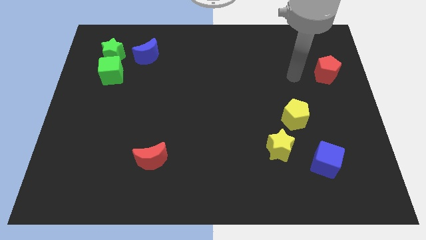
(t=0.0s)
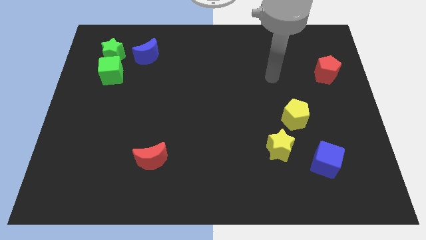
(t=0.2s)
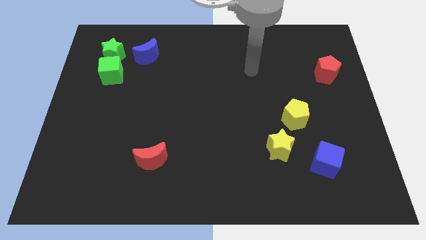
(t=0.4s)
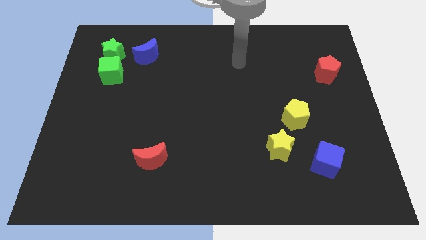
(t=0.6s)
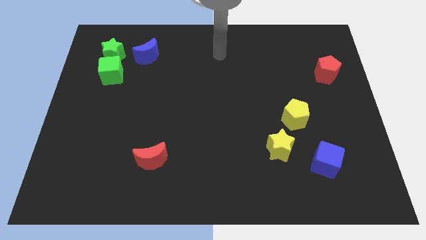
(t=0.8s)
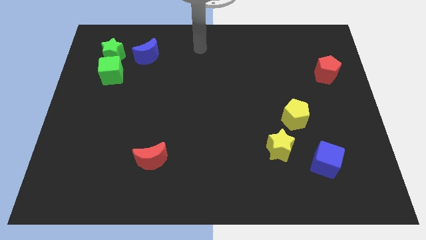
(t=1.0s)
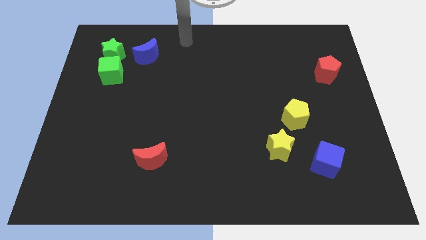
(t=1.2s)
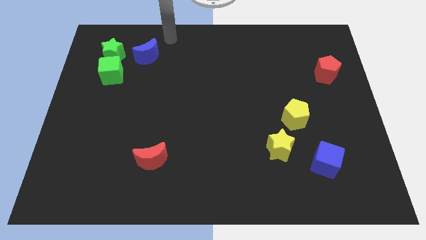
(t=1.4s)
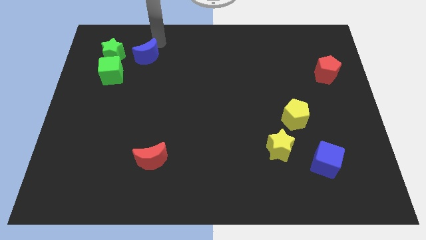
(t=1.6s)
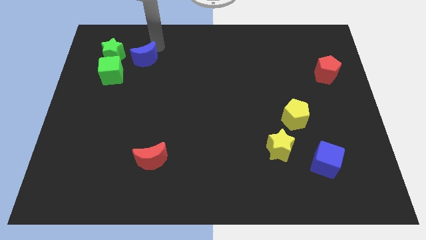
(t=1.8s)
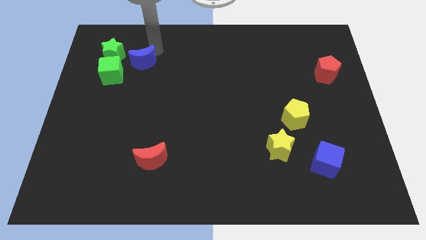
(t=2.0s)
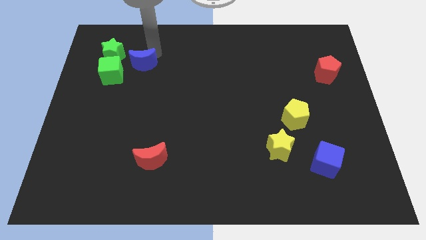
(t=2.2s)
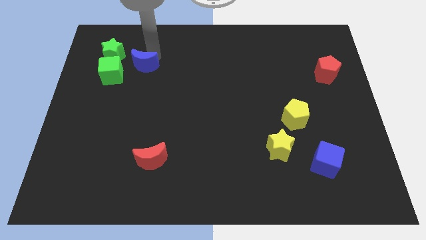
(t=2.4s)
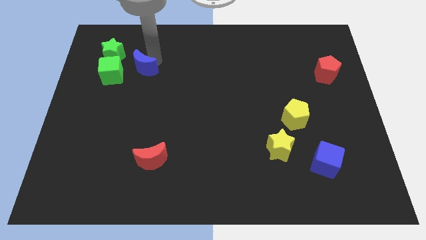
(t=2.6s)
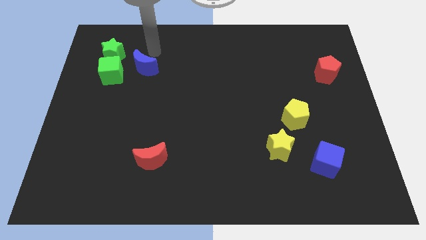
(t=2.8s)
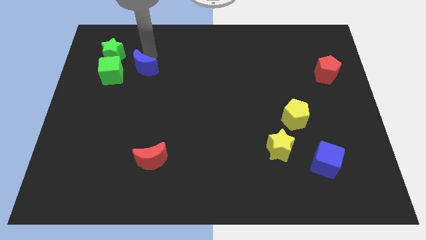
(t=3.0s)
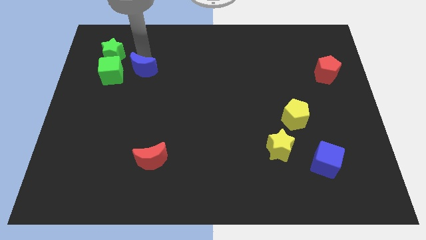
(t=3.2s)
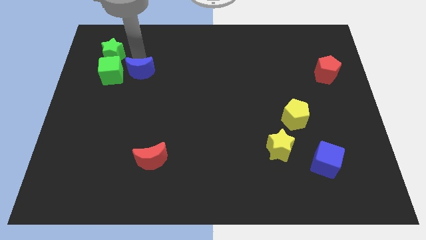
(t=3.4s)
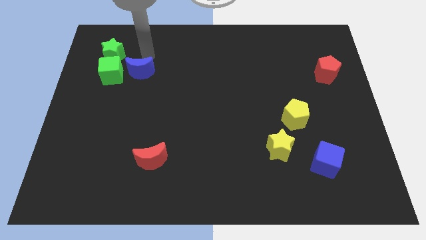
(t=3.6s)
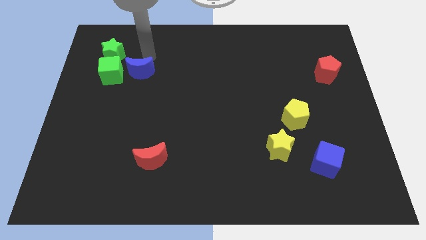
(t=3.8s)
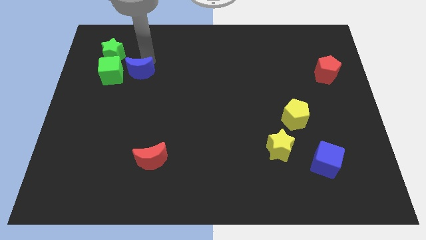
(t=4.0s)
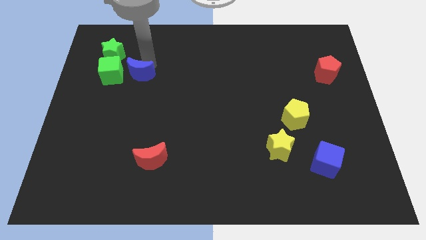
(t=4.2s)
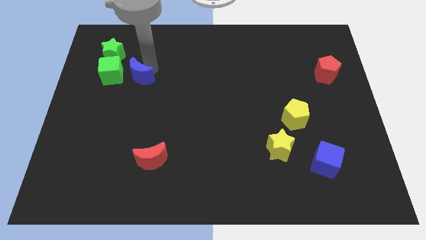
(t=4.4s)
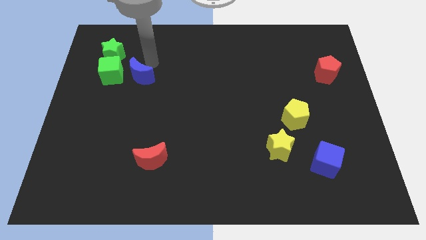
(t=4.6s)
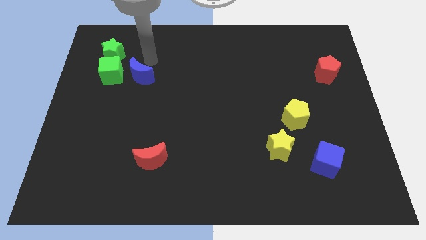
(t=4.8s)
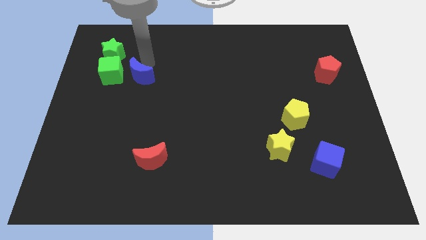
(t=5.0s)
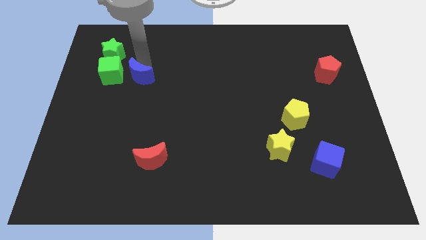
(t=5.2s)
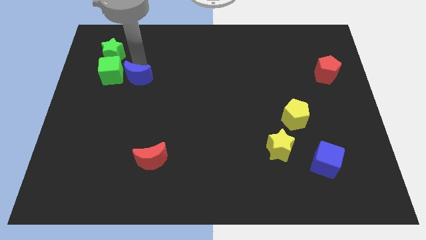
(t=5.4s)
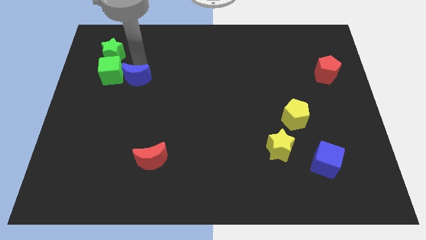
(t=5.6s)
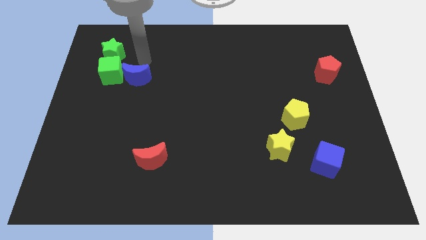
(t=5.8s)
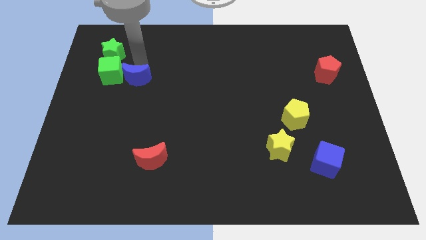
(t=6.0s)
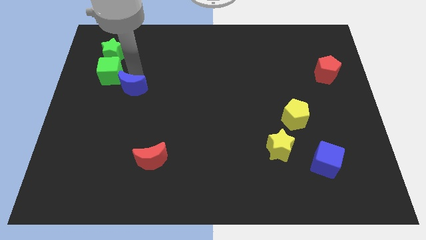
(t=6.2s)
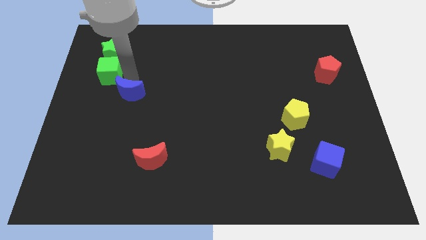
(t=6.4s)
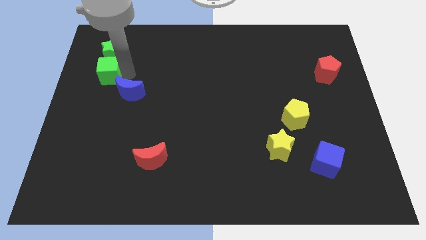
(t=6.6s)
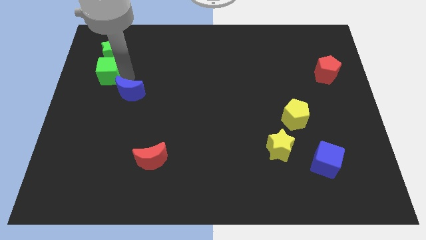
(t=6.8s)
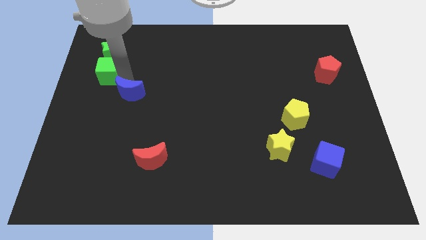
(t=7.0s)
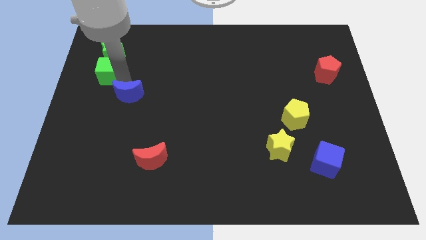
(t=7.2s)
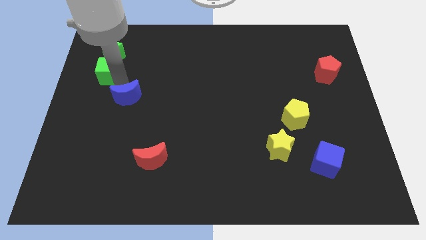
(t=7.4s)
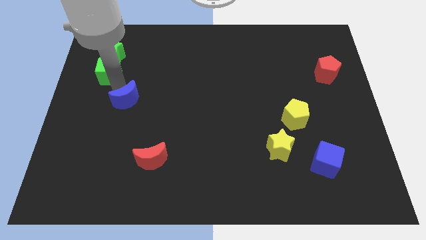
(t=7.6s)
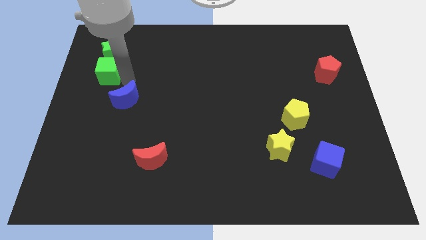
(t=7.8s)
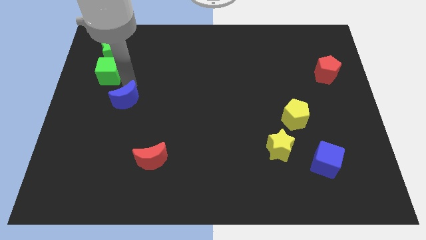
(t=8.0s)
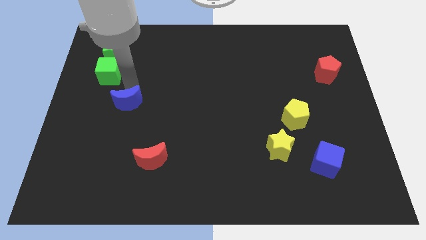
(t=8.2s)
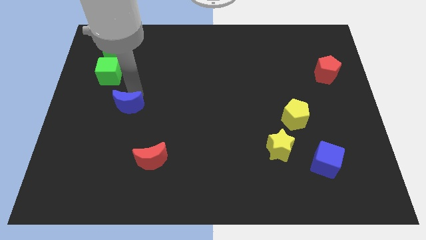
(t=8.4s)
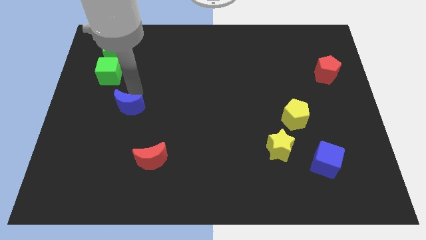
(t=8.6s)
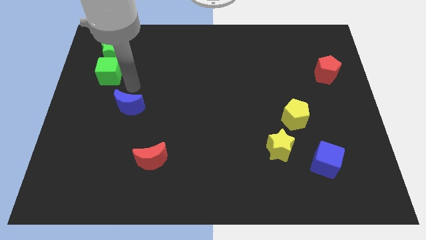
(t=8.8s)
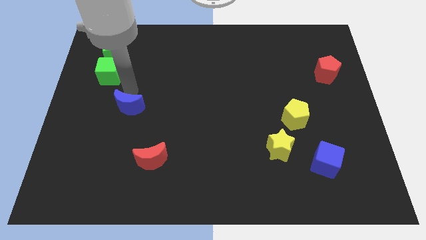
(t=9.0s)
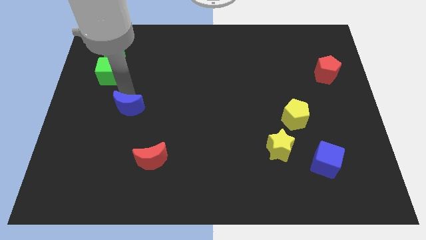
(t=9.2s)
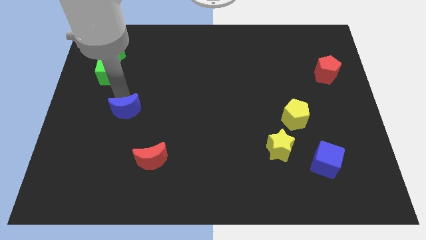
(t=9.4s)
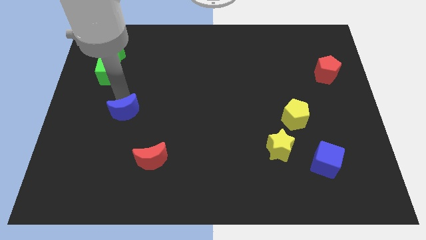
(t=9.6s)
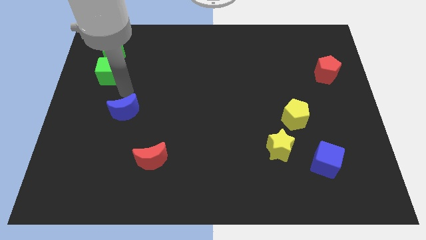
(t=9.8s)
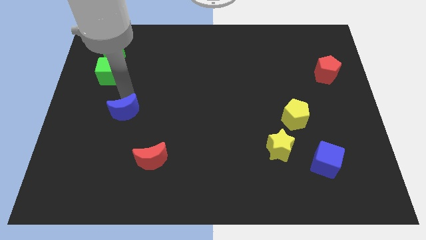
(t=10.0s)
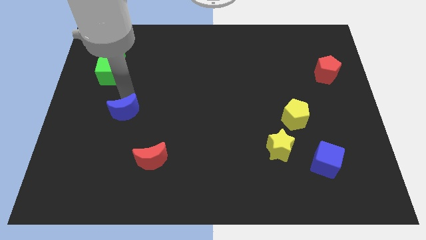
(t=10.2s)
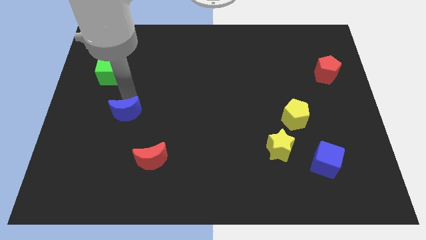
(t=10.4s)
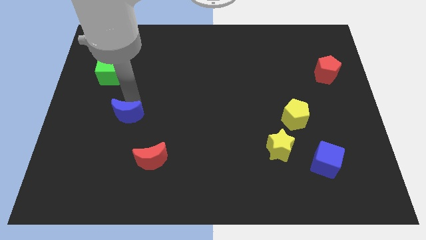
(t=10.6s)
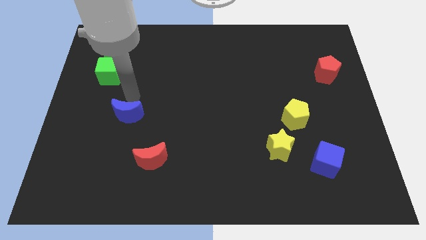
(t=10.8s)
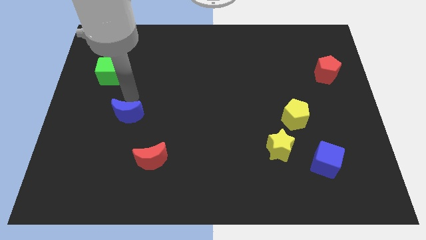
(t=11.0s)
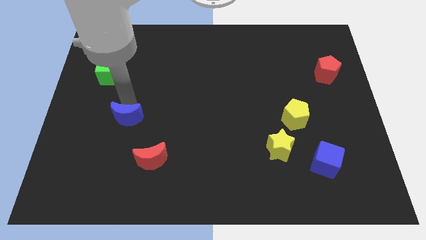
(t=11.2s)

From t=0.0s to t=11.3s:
push the blue moon down

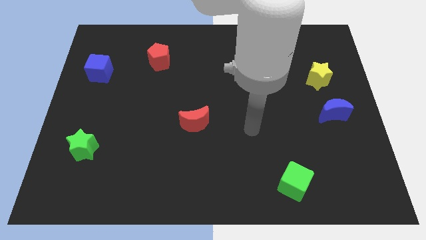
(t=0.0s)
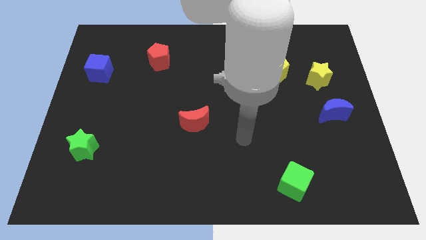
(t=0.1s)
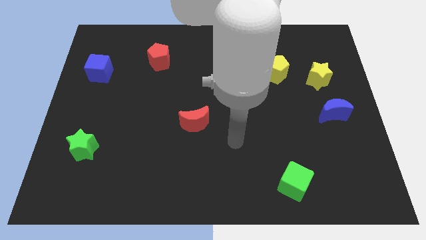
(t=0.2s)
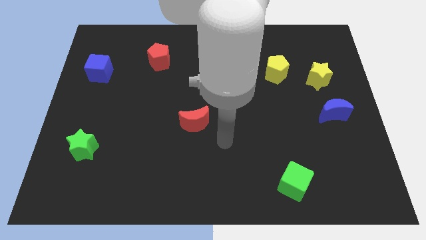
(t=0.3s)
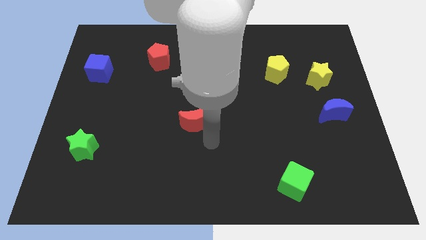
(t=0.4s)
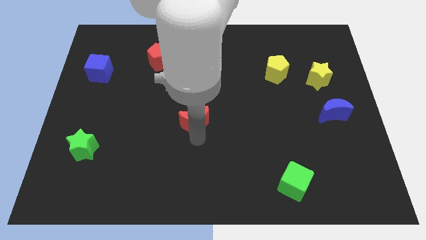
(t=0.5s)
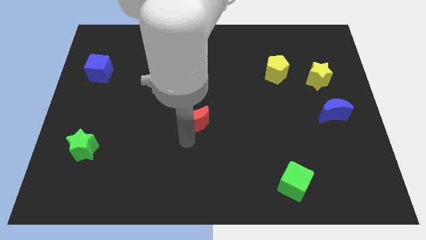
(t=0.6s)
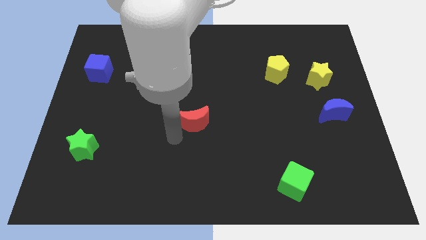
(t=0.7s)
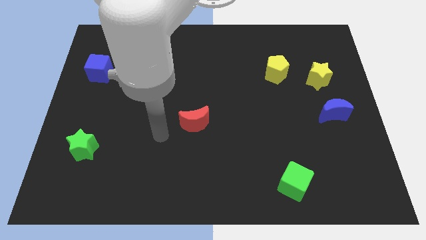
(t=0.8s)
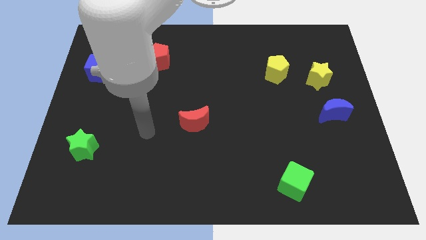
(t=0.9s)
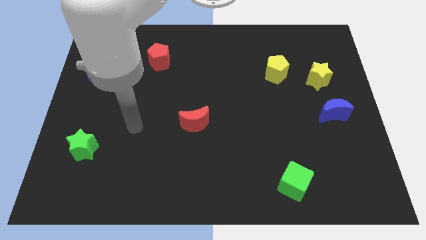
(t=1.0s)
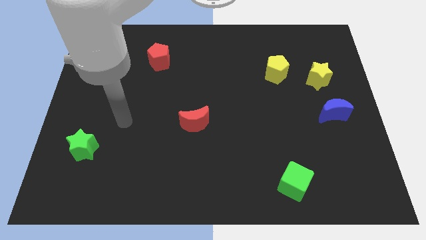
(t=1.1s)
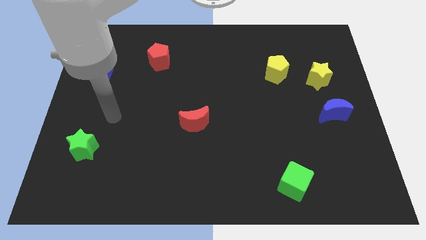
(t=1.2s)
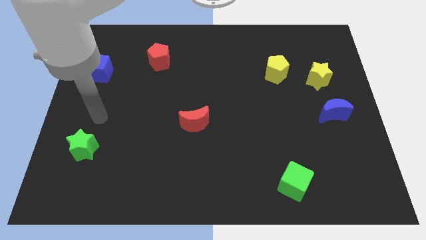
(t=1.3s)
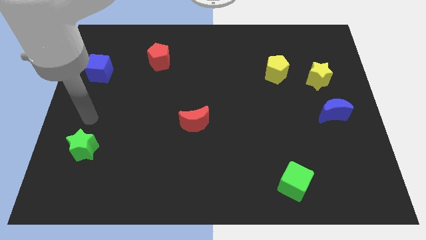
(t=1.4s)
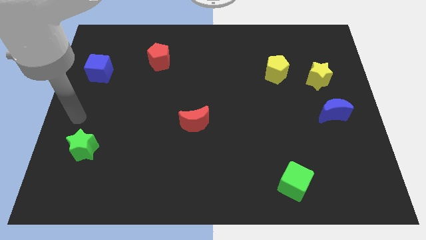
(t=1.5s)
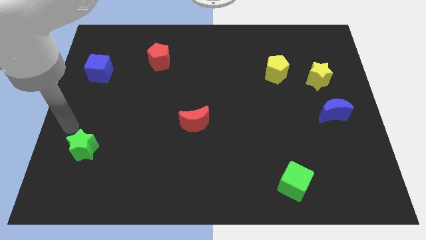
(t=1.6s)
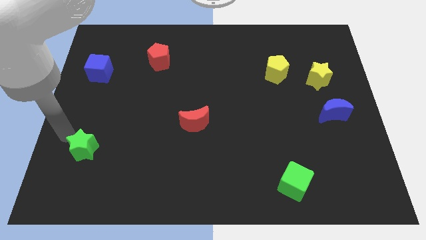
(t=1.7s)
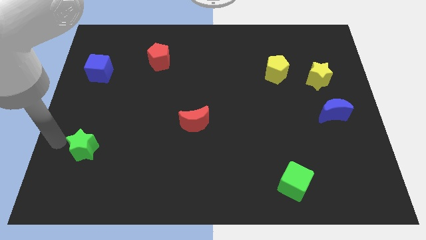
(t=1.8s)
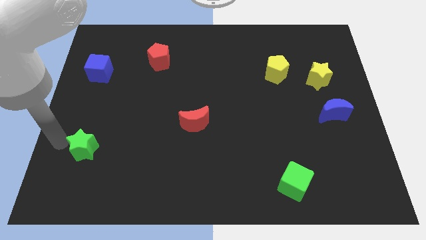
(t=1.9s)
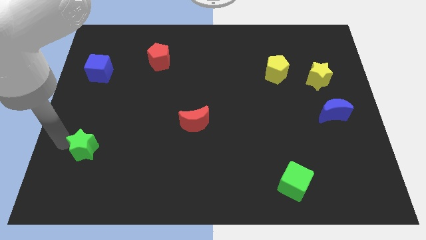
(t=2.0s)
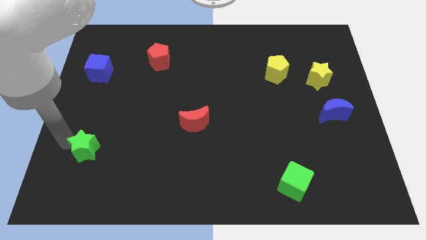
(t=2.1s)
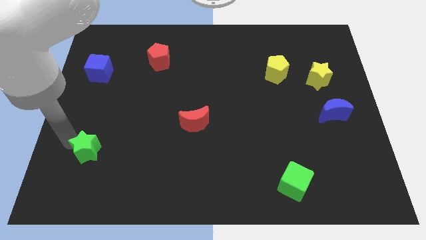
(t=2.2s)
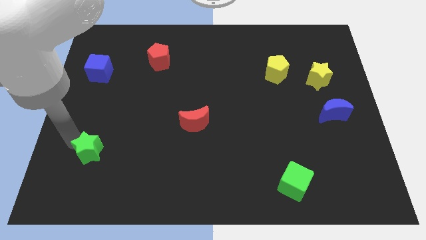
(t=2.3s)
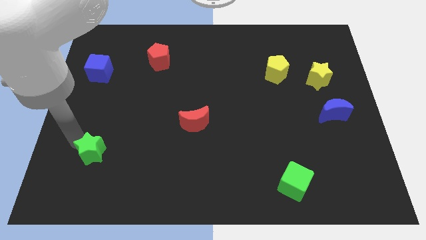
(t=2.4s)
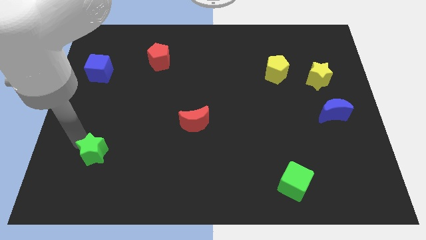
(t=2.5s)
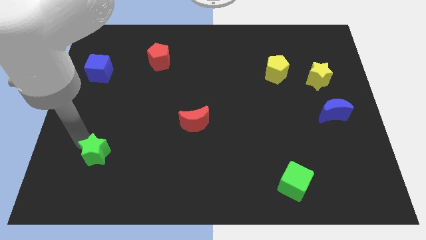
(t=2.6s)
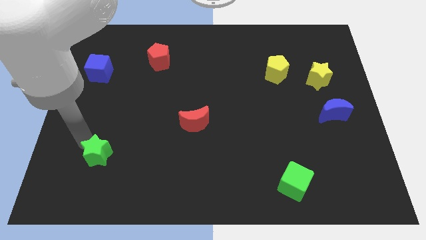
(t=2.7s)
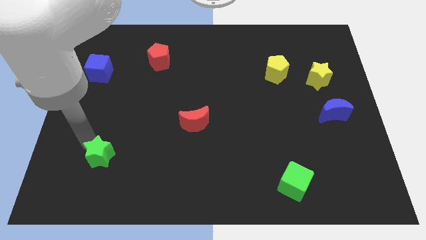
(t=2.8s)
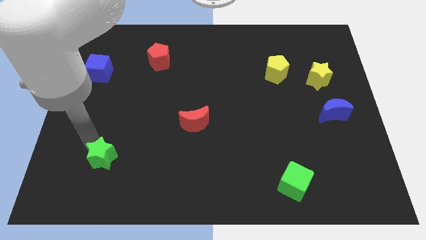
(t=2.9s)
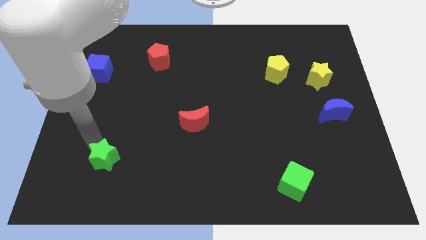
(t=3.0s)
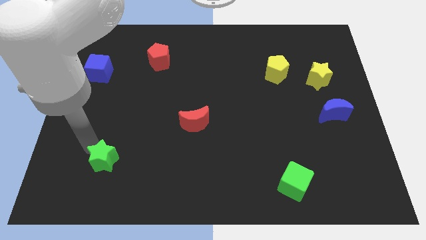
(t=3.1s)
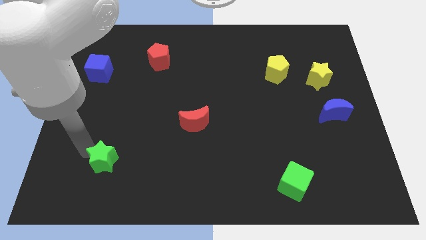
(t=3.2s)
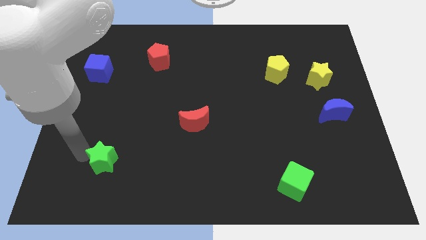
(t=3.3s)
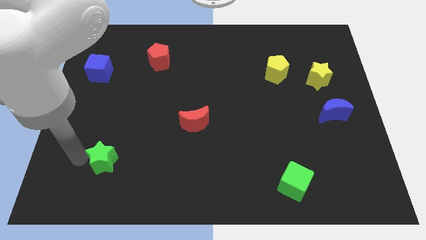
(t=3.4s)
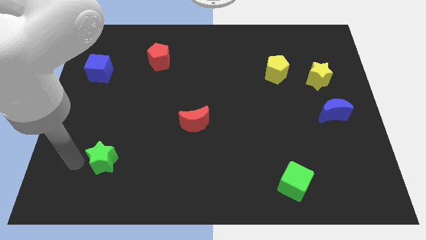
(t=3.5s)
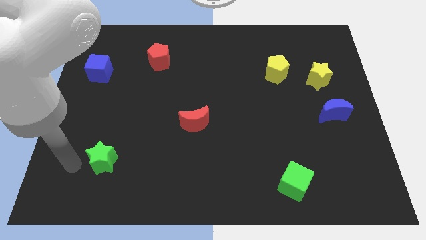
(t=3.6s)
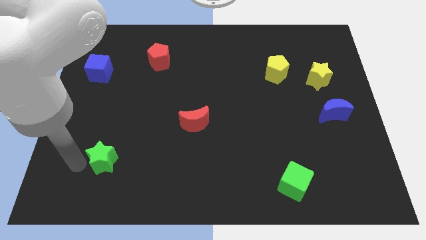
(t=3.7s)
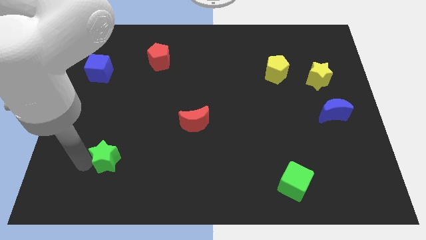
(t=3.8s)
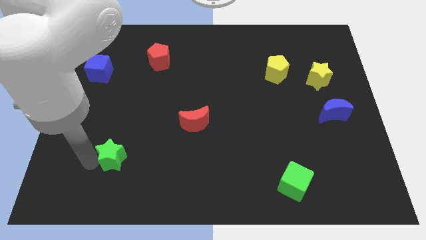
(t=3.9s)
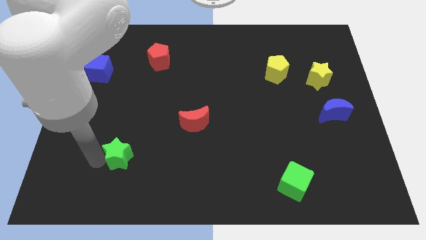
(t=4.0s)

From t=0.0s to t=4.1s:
slightly slide the green star to the right
